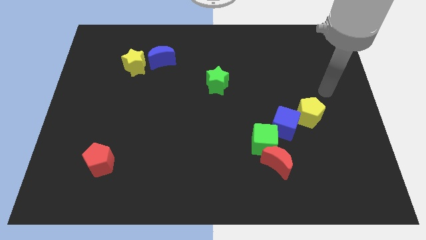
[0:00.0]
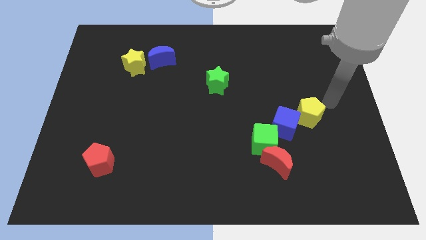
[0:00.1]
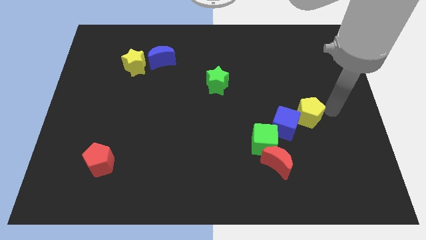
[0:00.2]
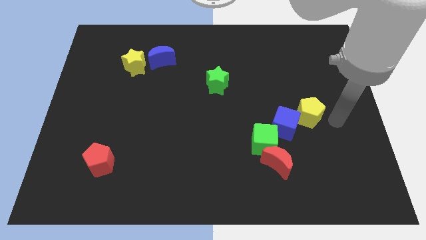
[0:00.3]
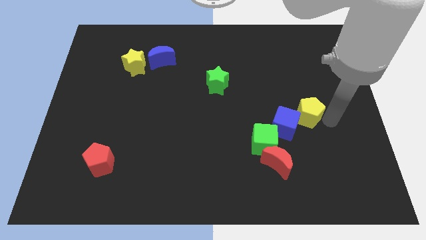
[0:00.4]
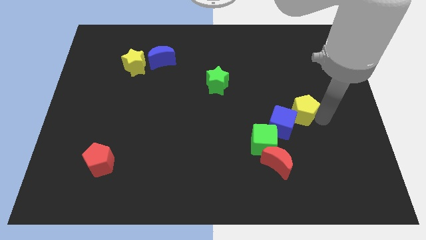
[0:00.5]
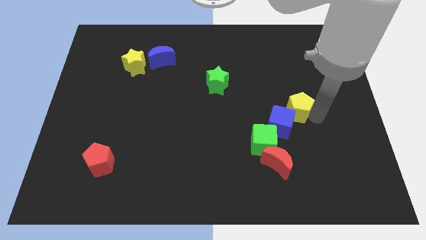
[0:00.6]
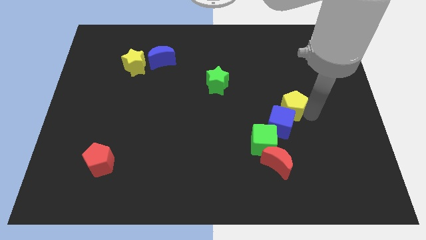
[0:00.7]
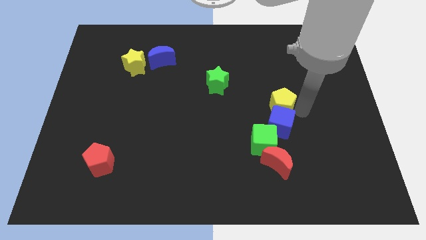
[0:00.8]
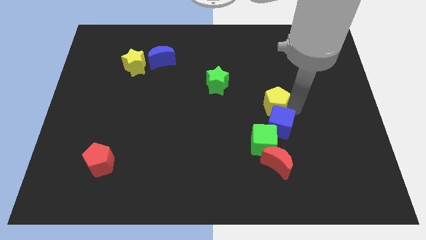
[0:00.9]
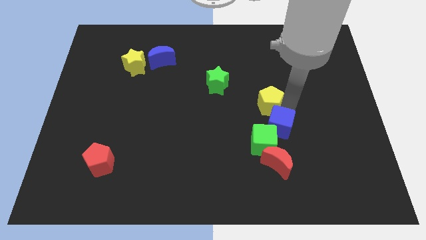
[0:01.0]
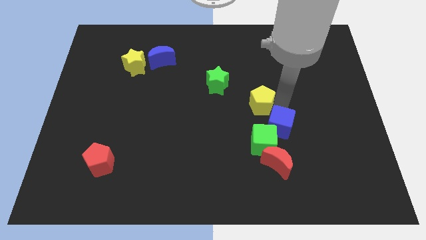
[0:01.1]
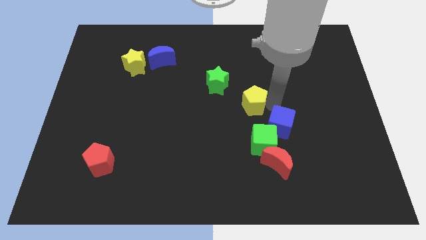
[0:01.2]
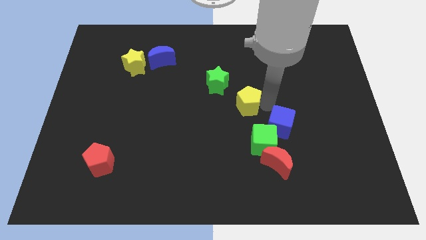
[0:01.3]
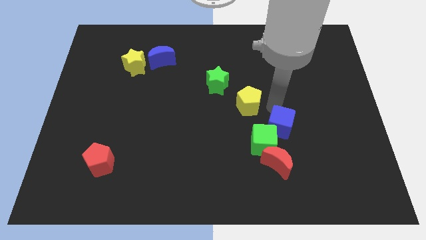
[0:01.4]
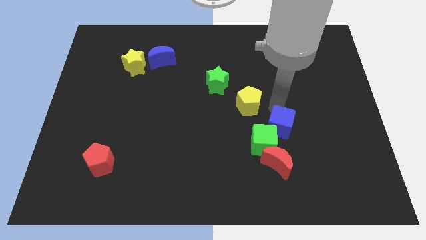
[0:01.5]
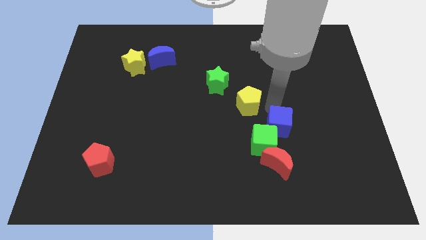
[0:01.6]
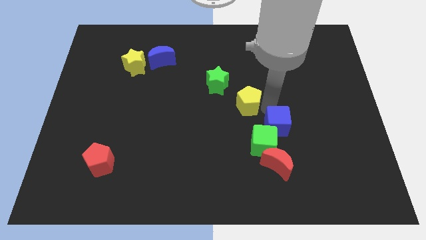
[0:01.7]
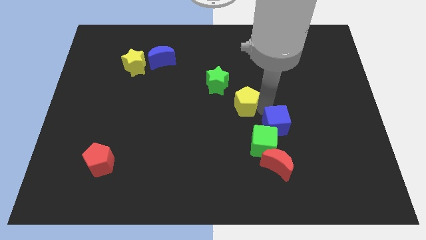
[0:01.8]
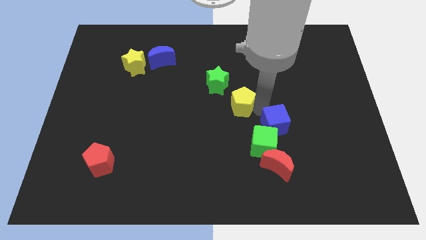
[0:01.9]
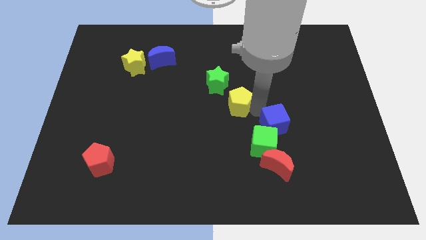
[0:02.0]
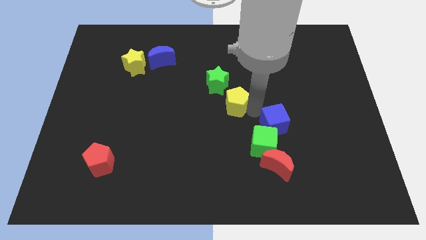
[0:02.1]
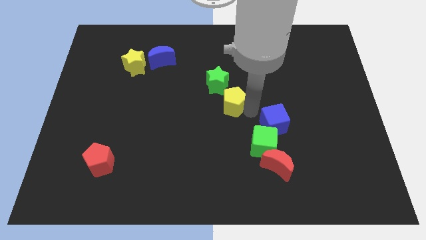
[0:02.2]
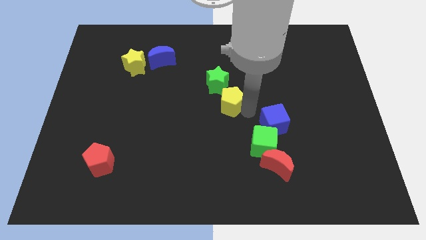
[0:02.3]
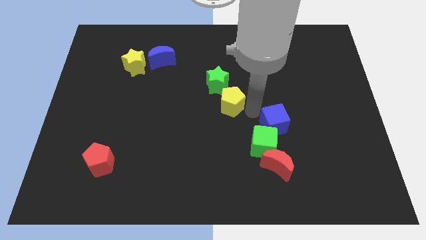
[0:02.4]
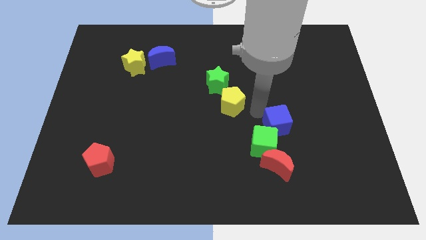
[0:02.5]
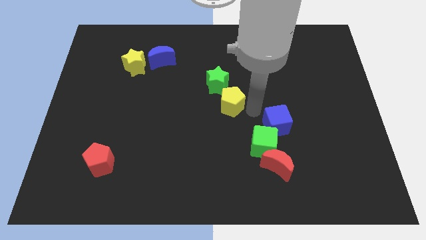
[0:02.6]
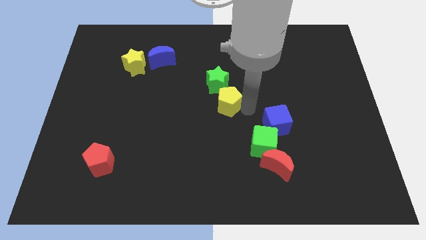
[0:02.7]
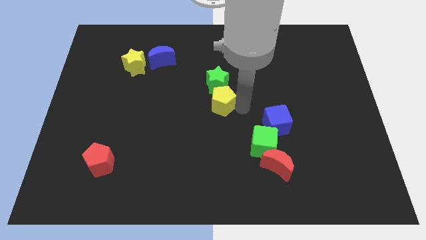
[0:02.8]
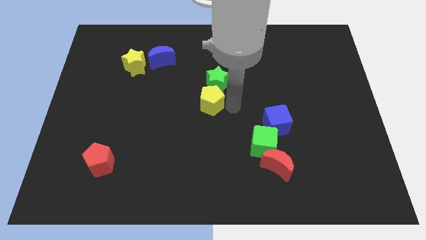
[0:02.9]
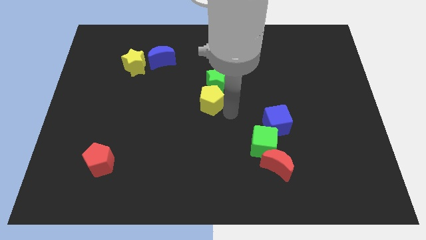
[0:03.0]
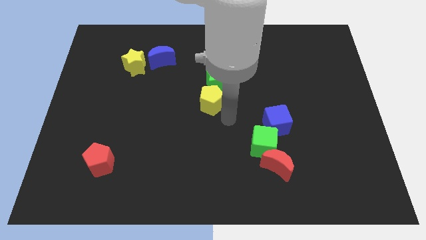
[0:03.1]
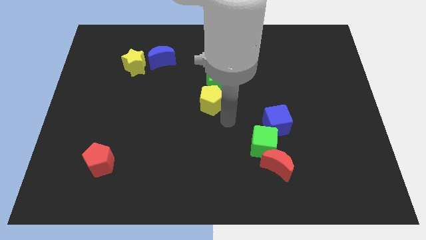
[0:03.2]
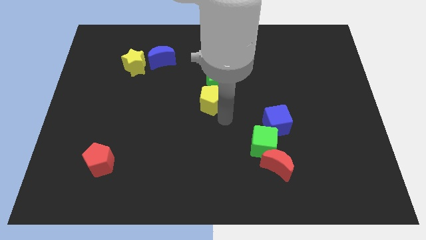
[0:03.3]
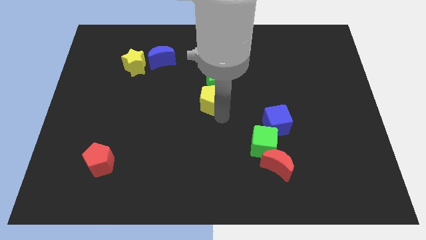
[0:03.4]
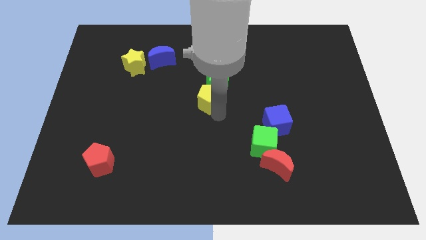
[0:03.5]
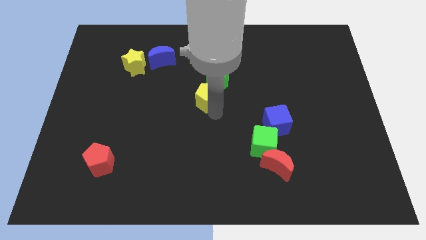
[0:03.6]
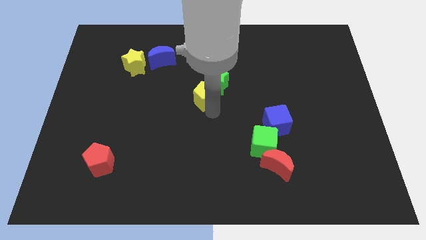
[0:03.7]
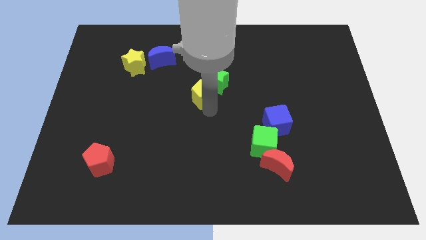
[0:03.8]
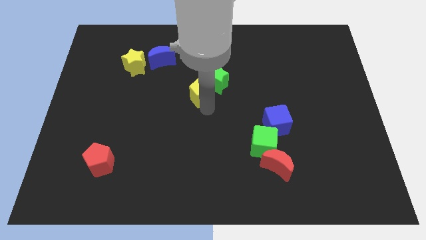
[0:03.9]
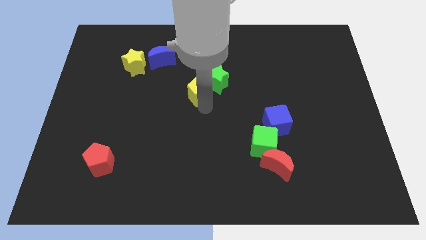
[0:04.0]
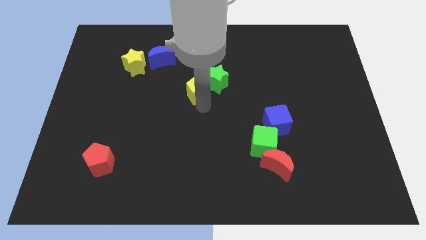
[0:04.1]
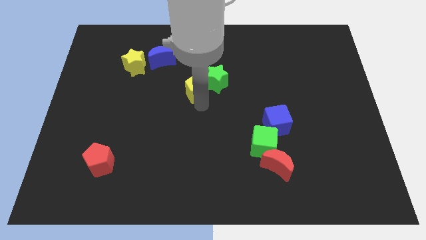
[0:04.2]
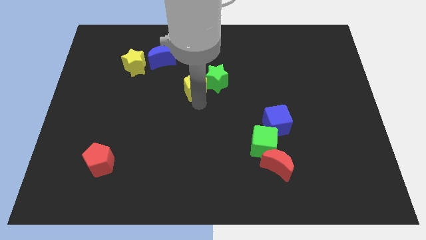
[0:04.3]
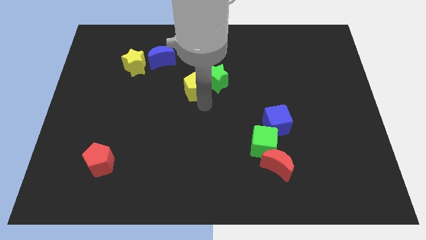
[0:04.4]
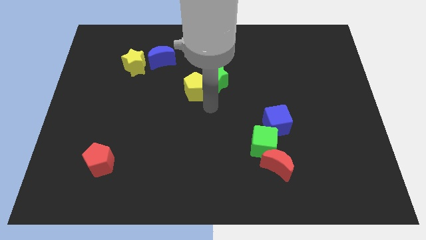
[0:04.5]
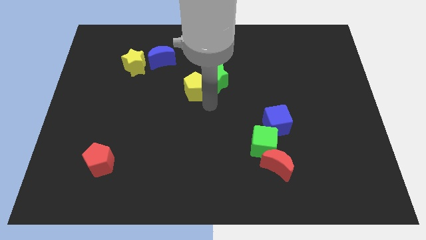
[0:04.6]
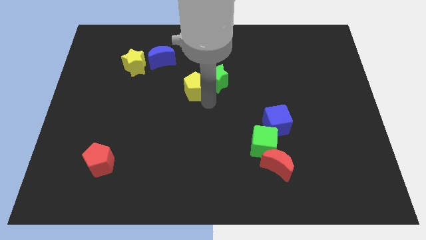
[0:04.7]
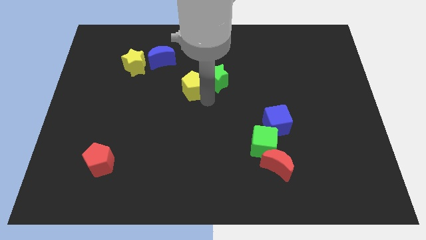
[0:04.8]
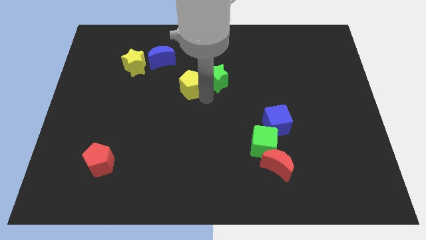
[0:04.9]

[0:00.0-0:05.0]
push the yellow pentagon diagonally down and to the right of the blue moon
